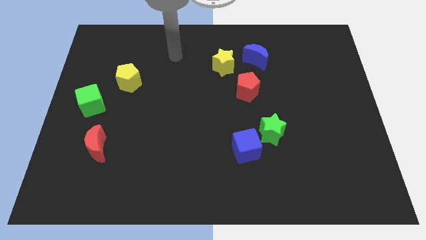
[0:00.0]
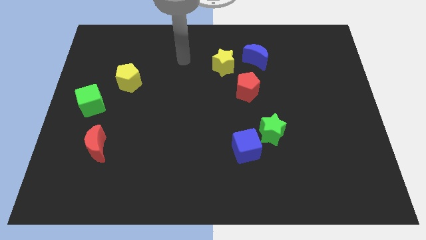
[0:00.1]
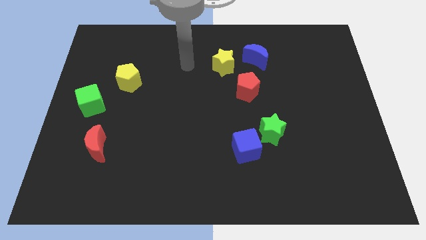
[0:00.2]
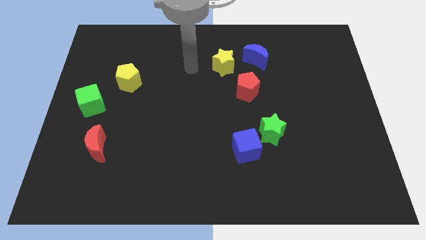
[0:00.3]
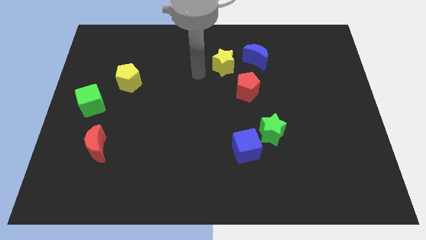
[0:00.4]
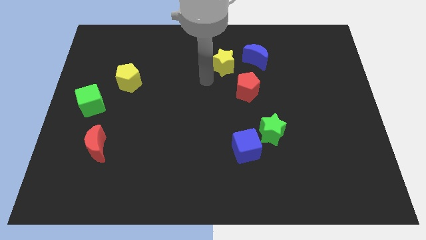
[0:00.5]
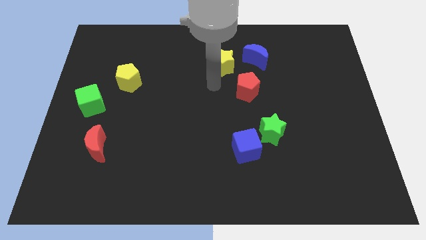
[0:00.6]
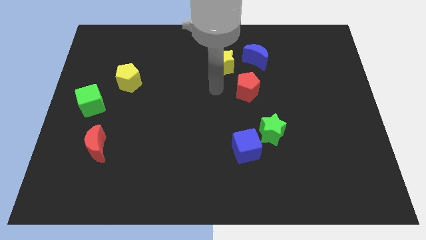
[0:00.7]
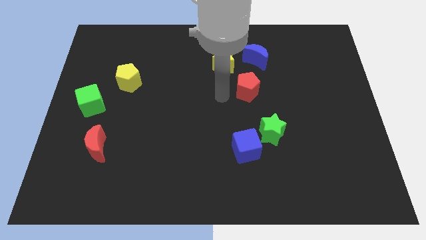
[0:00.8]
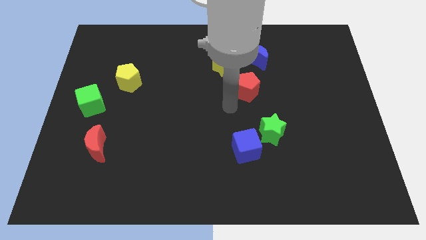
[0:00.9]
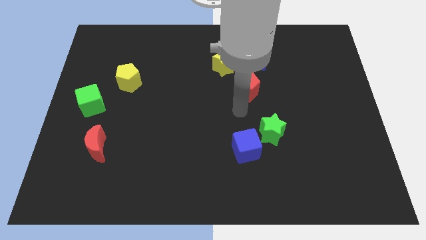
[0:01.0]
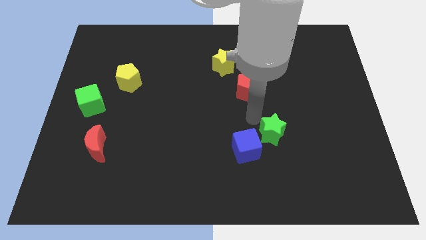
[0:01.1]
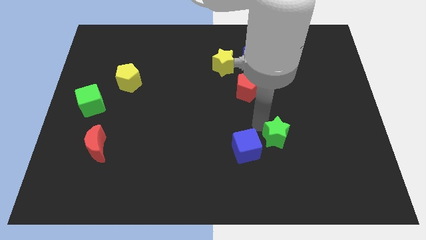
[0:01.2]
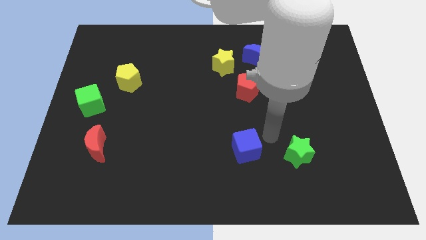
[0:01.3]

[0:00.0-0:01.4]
pull the blue cube apart from the green star

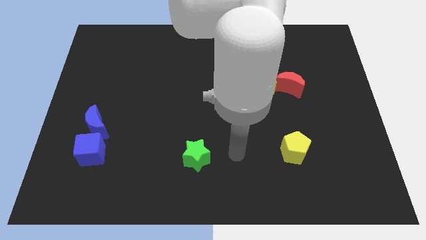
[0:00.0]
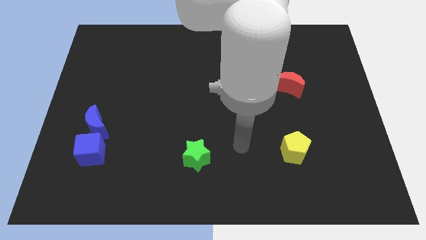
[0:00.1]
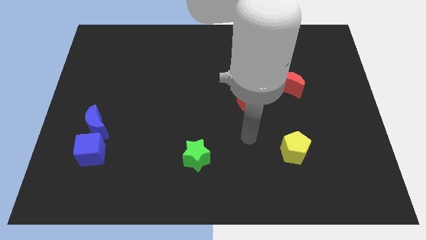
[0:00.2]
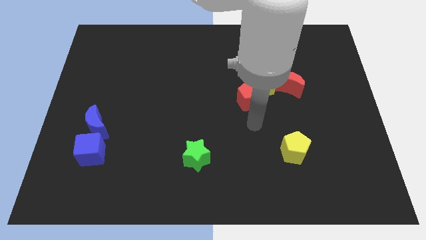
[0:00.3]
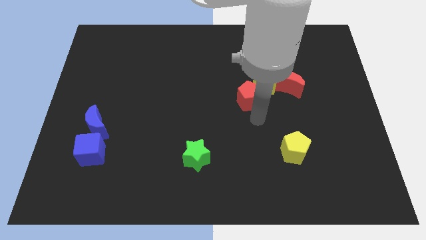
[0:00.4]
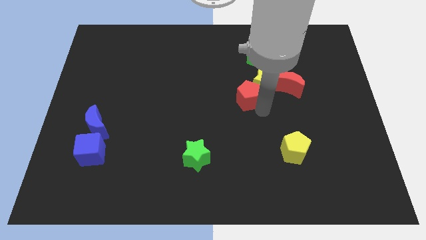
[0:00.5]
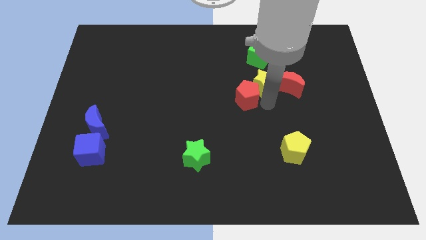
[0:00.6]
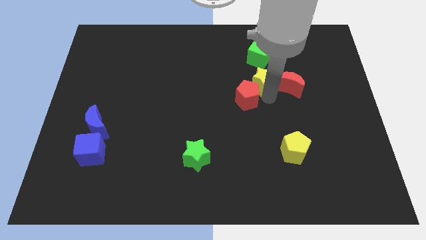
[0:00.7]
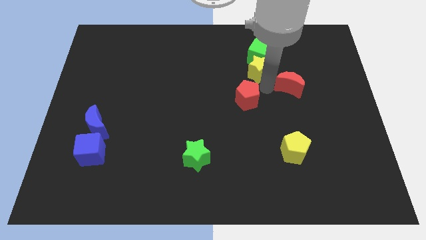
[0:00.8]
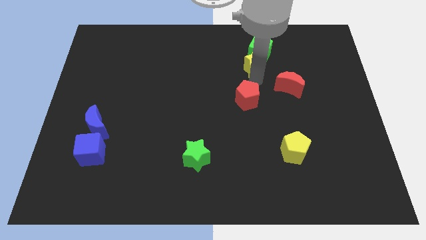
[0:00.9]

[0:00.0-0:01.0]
separate the red pentagon from the yellow star

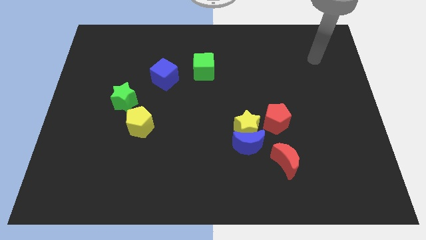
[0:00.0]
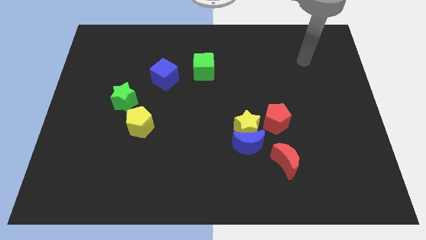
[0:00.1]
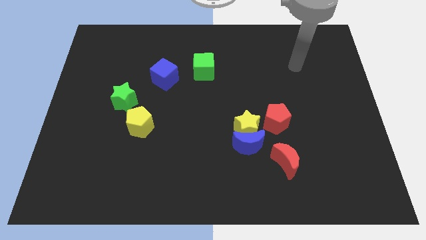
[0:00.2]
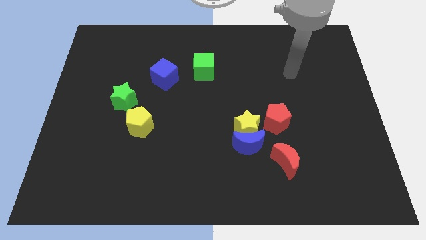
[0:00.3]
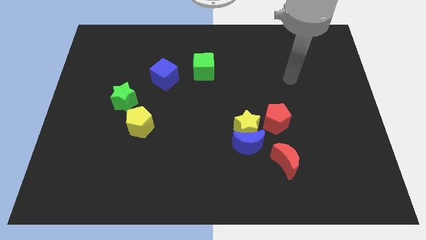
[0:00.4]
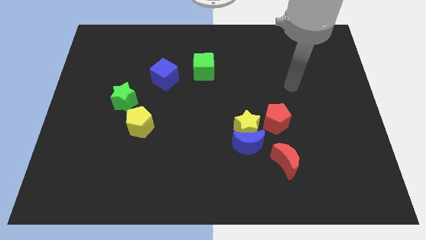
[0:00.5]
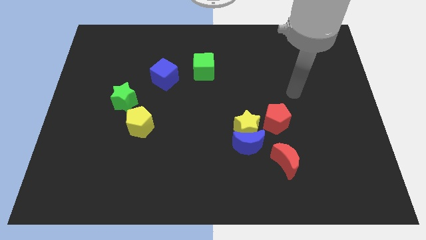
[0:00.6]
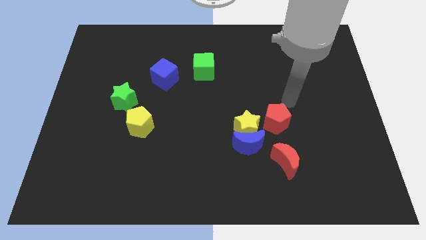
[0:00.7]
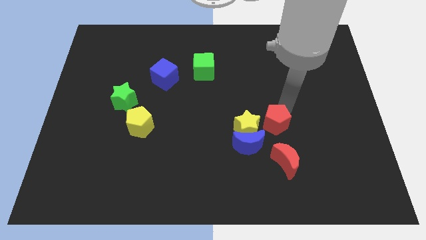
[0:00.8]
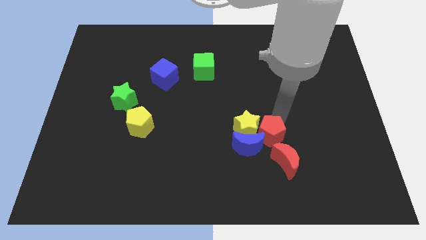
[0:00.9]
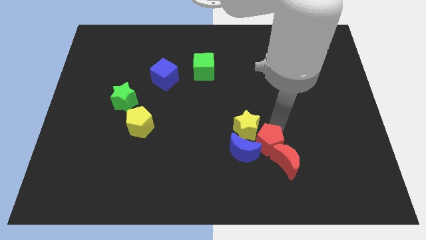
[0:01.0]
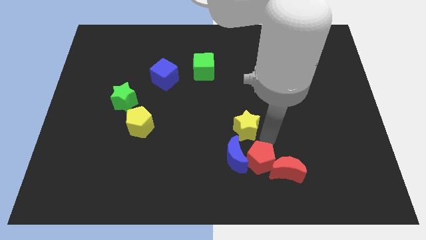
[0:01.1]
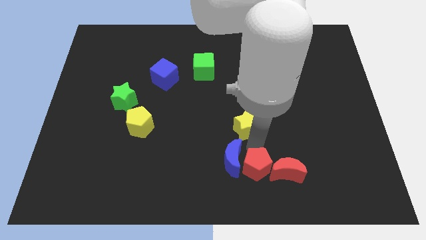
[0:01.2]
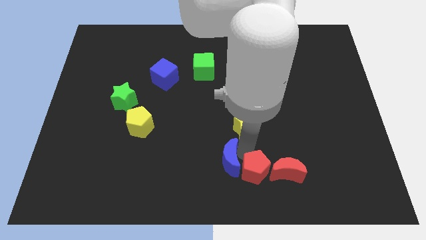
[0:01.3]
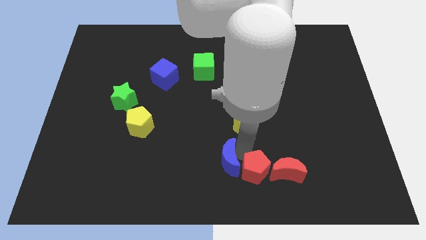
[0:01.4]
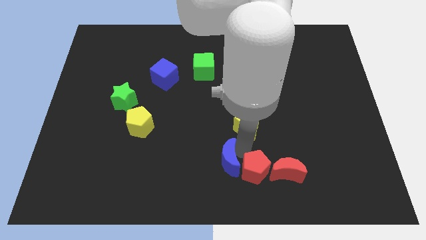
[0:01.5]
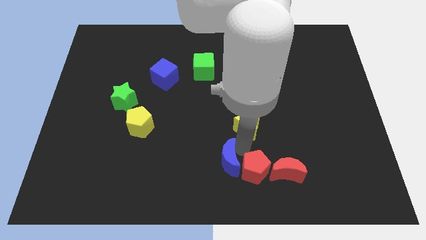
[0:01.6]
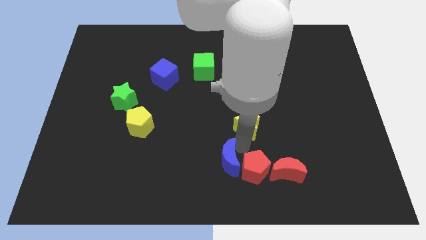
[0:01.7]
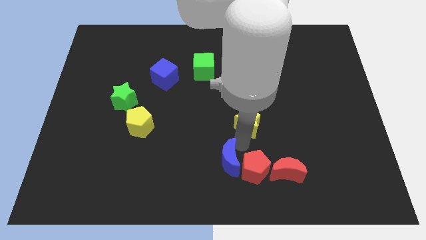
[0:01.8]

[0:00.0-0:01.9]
separate the yellow star from the blue moon and red pentagon

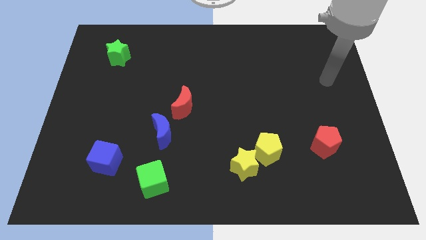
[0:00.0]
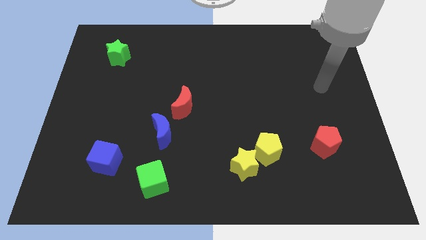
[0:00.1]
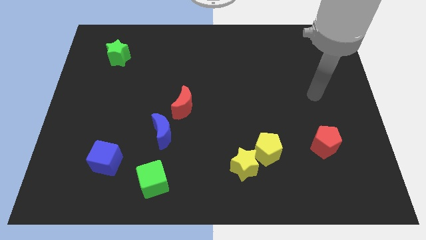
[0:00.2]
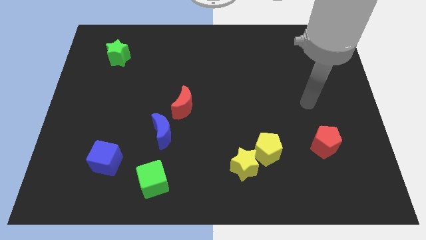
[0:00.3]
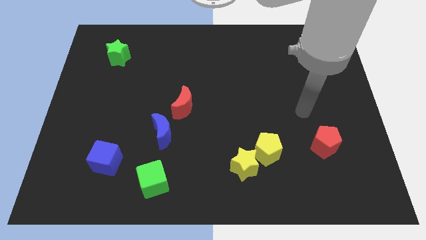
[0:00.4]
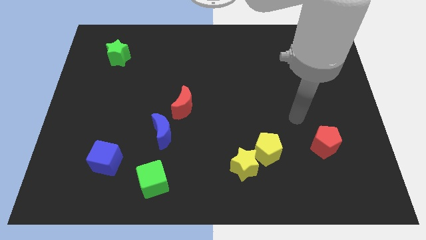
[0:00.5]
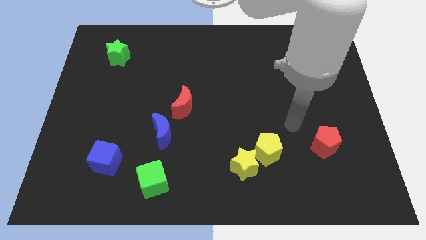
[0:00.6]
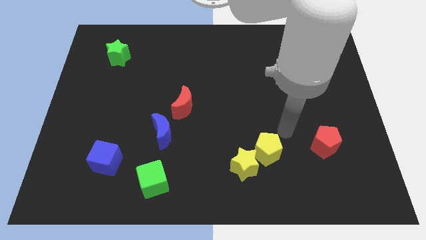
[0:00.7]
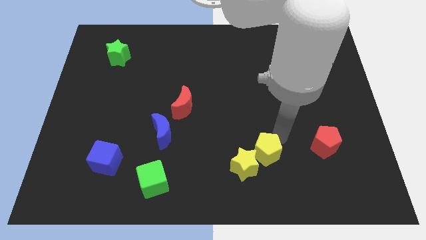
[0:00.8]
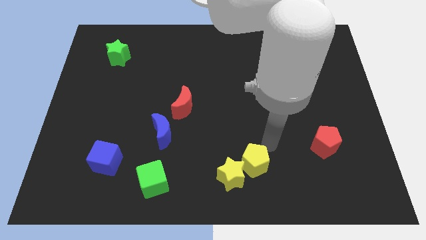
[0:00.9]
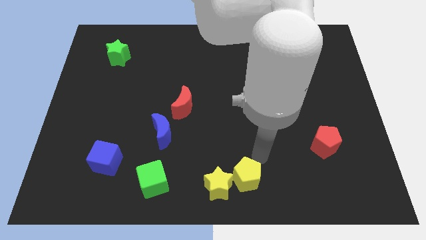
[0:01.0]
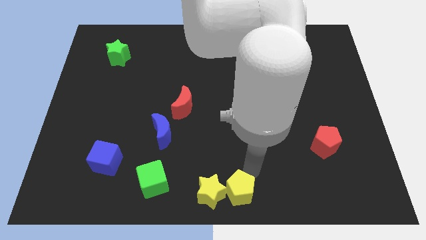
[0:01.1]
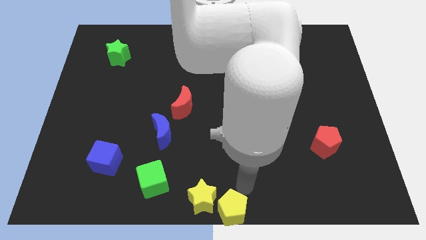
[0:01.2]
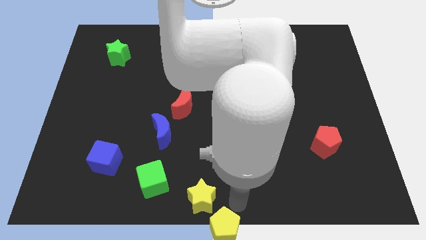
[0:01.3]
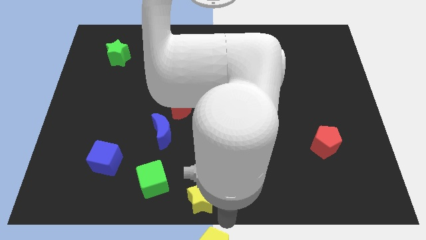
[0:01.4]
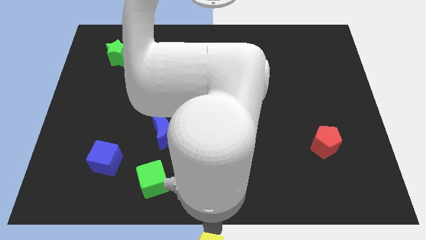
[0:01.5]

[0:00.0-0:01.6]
separate the yellow star from the yellow pentagon

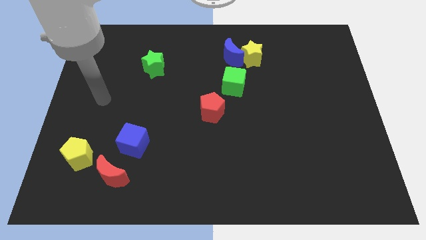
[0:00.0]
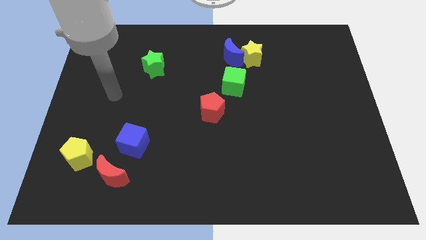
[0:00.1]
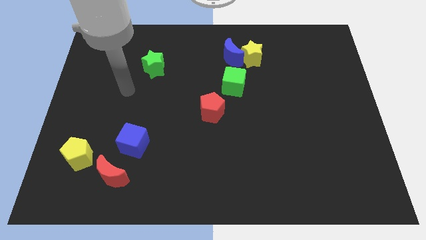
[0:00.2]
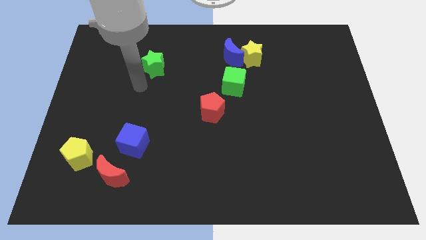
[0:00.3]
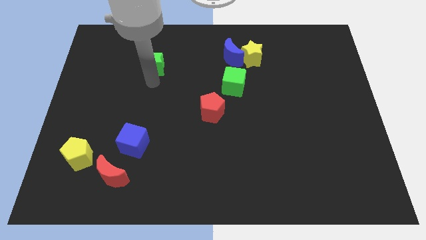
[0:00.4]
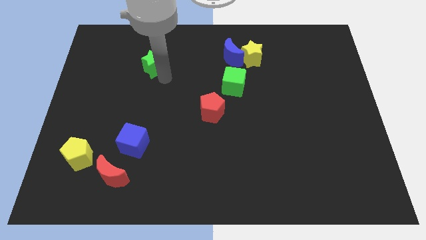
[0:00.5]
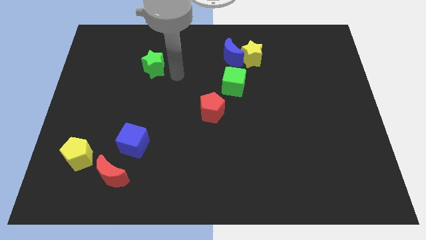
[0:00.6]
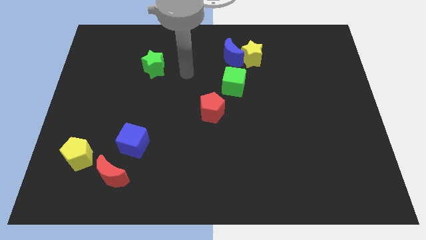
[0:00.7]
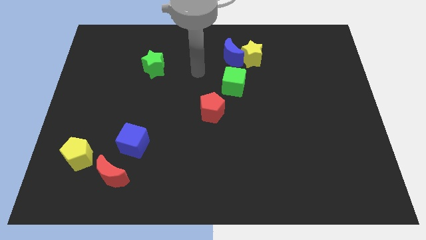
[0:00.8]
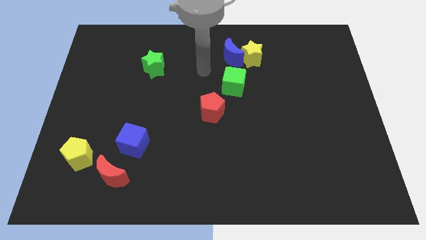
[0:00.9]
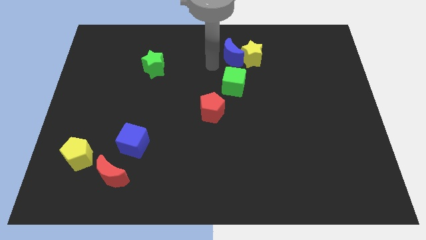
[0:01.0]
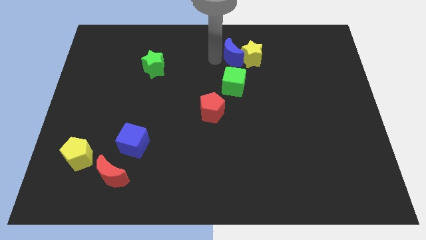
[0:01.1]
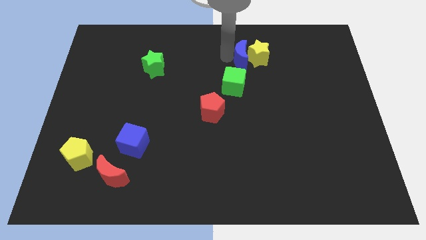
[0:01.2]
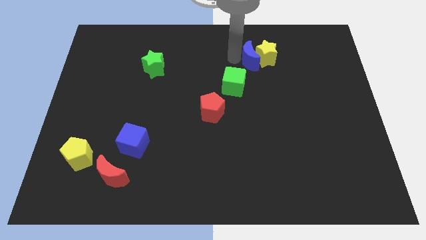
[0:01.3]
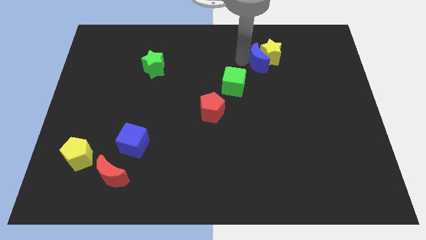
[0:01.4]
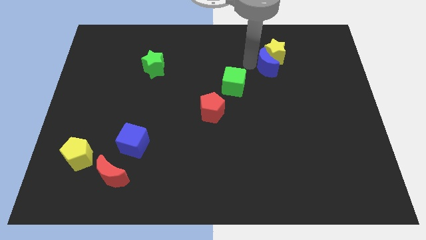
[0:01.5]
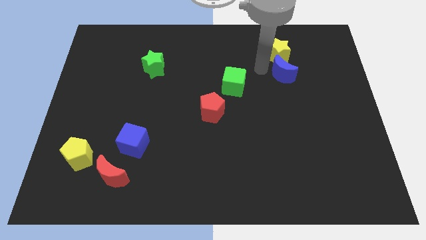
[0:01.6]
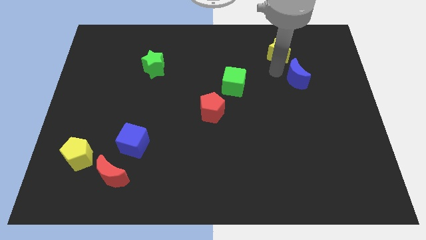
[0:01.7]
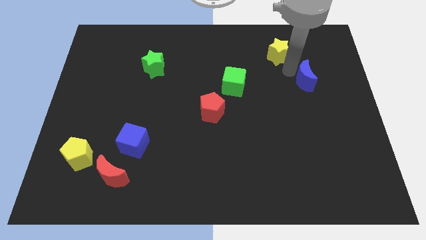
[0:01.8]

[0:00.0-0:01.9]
separate the yellow star from the blue moon

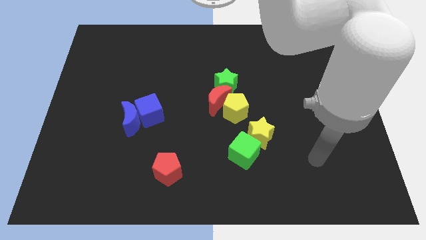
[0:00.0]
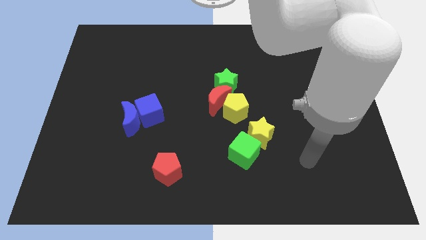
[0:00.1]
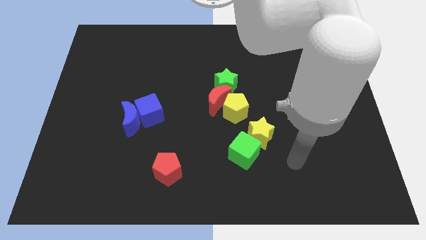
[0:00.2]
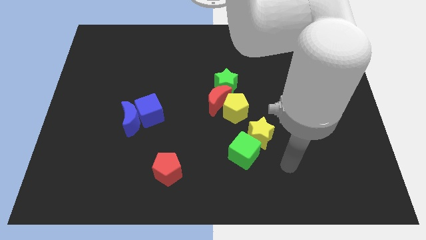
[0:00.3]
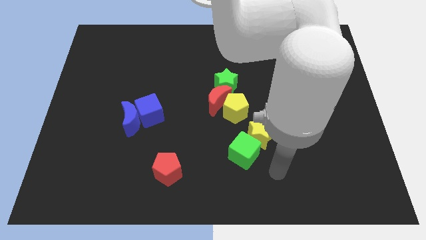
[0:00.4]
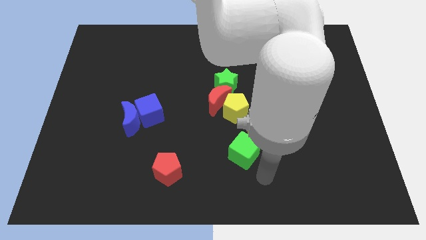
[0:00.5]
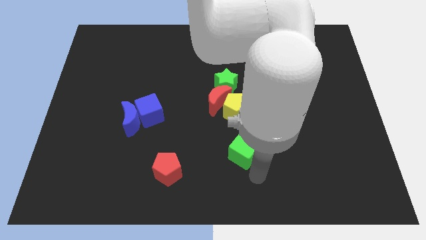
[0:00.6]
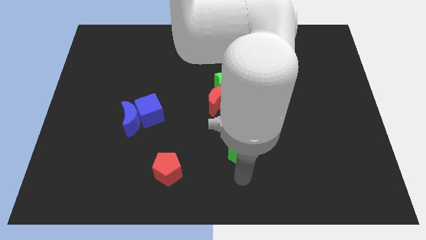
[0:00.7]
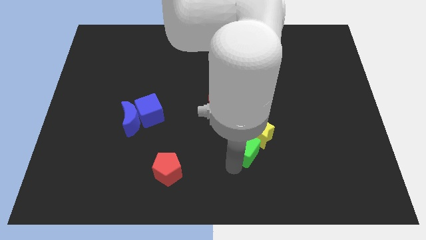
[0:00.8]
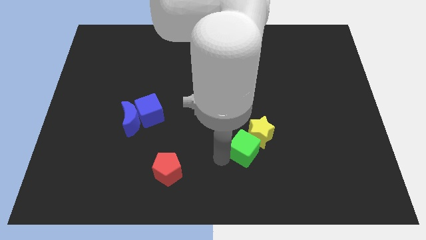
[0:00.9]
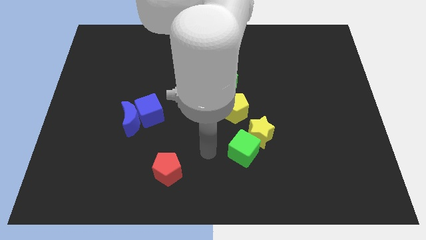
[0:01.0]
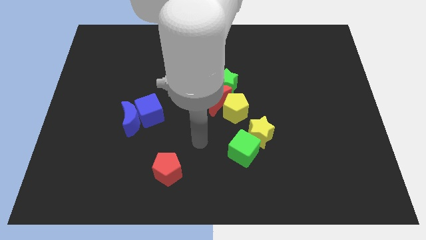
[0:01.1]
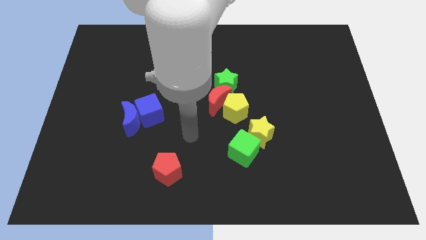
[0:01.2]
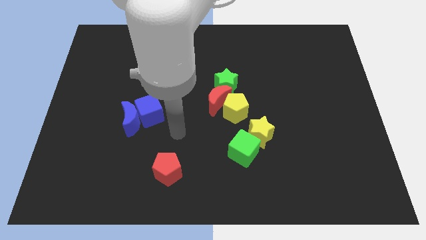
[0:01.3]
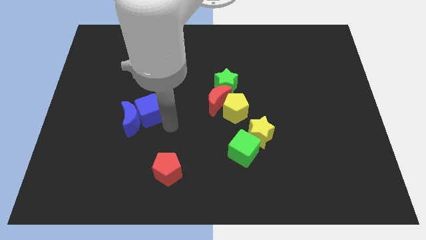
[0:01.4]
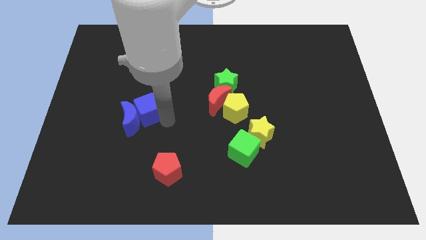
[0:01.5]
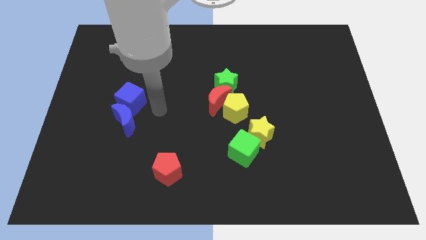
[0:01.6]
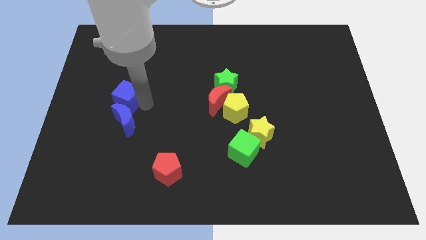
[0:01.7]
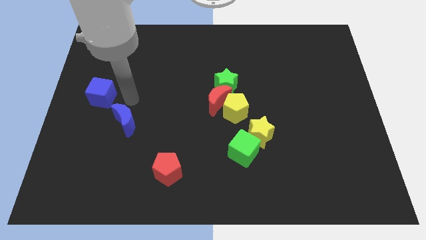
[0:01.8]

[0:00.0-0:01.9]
move the blue moon away from the blue cube
